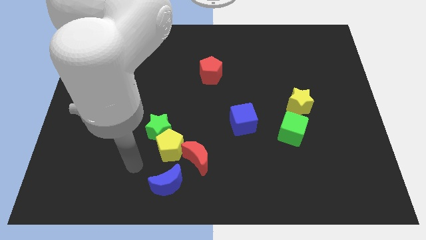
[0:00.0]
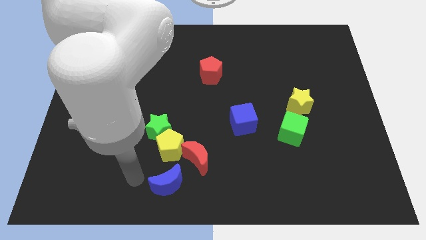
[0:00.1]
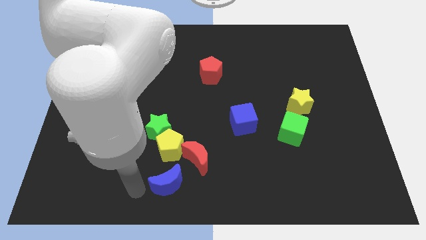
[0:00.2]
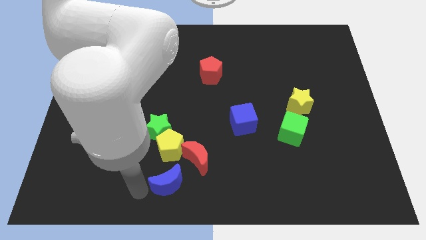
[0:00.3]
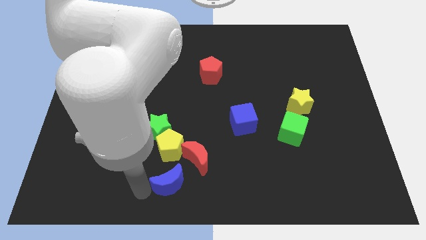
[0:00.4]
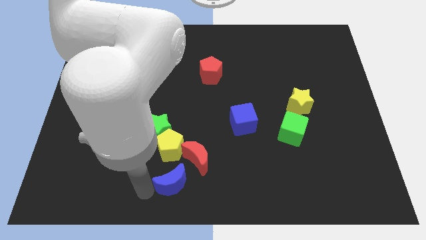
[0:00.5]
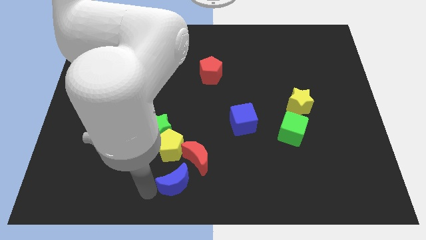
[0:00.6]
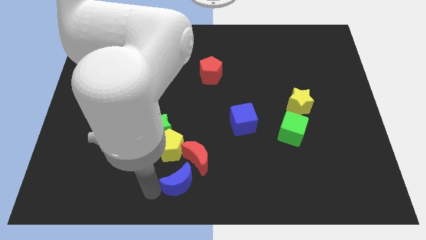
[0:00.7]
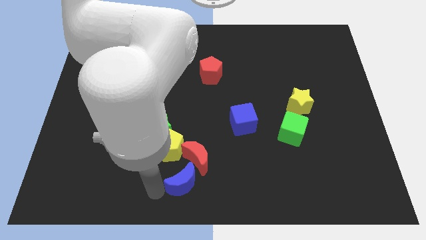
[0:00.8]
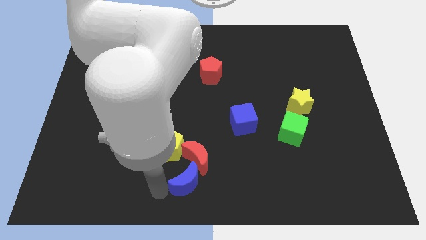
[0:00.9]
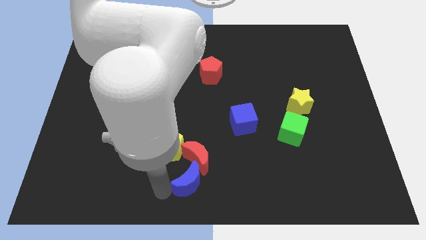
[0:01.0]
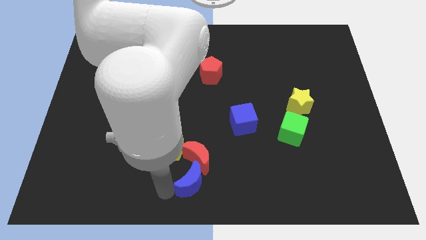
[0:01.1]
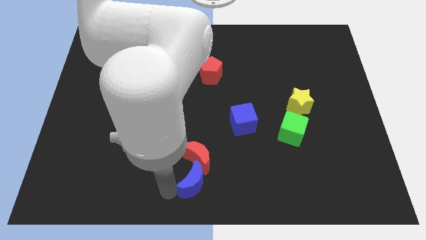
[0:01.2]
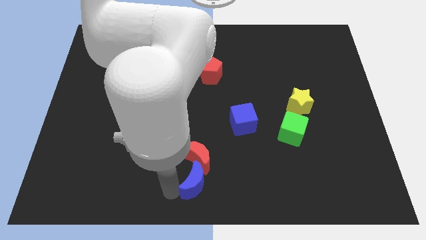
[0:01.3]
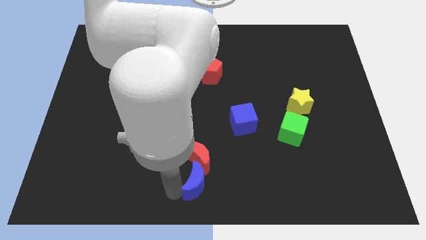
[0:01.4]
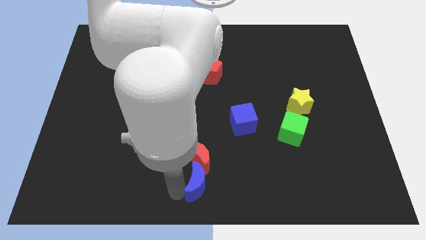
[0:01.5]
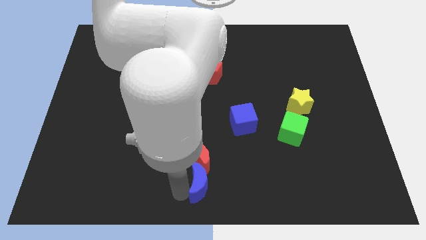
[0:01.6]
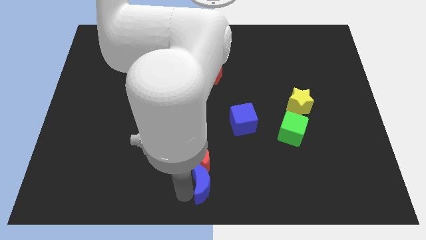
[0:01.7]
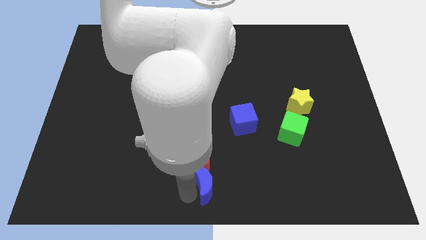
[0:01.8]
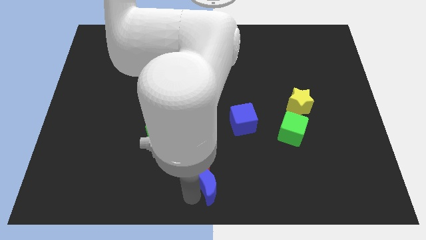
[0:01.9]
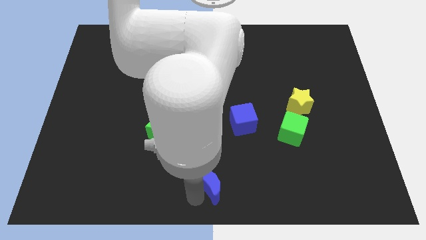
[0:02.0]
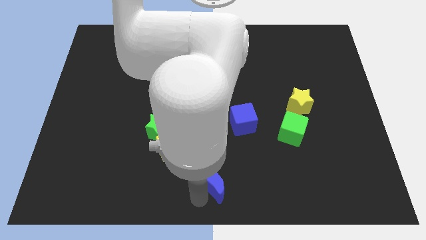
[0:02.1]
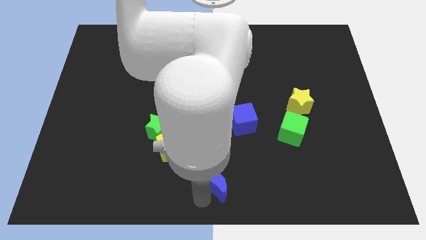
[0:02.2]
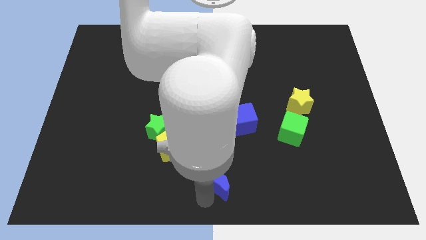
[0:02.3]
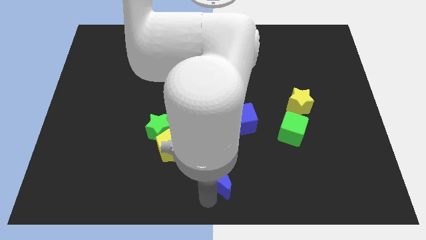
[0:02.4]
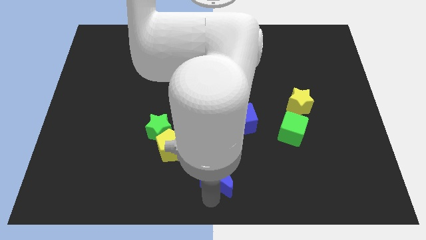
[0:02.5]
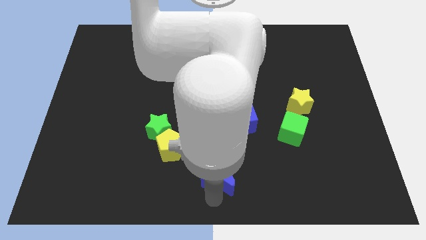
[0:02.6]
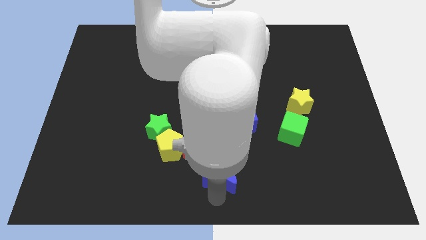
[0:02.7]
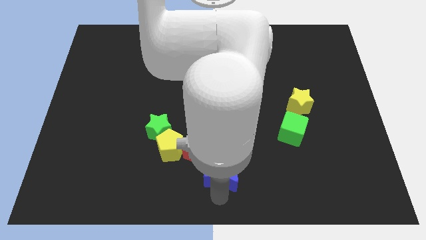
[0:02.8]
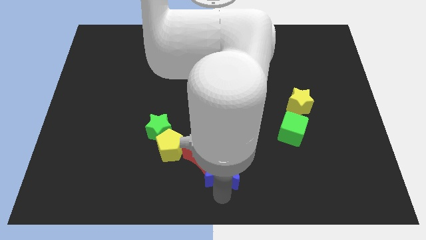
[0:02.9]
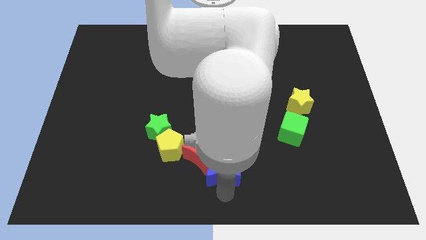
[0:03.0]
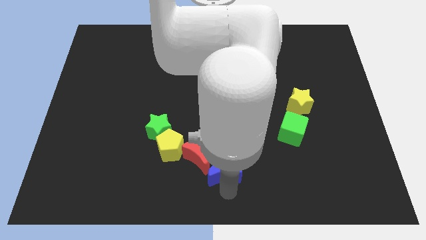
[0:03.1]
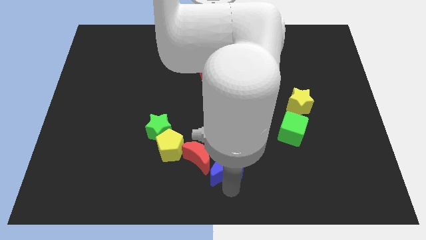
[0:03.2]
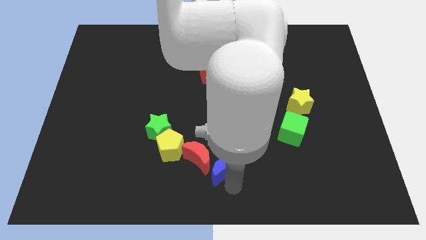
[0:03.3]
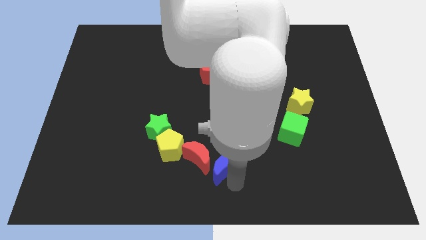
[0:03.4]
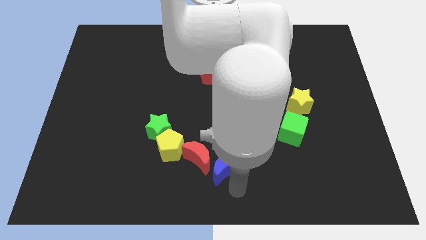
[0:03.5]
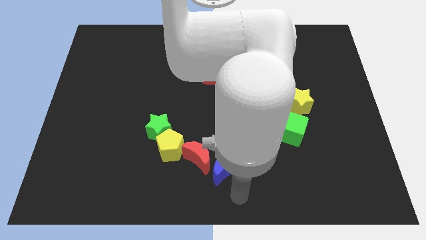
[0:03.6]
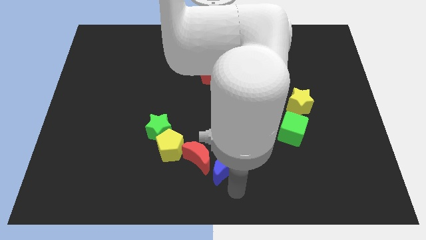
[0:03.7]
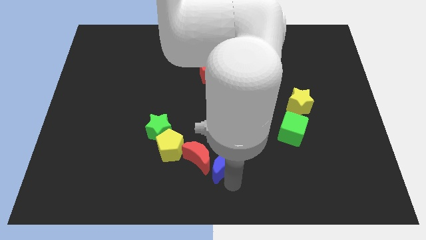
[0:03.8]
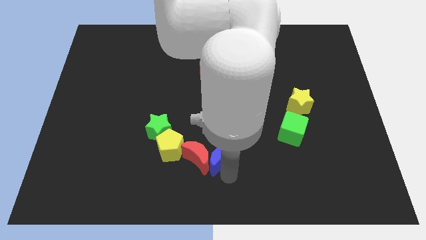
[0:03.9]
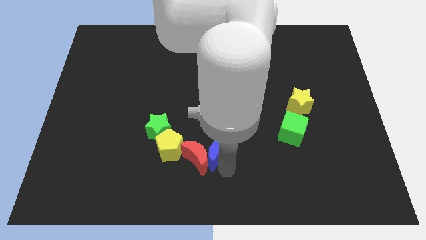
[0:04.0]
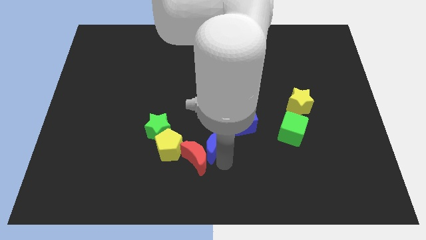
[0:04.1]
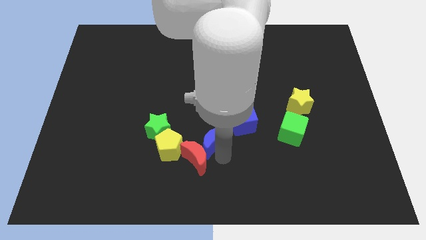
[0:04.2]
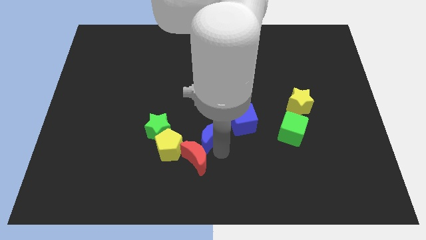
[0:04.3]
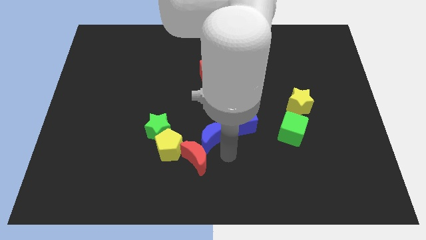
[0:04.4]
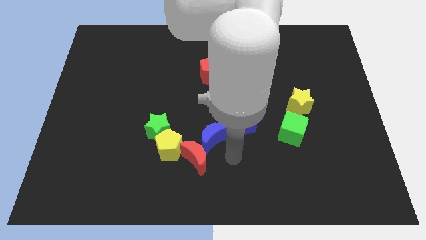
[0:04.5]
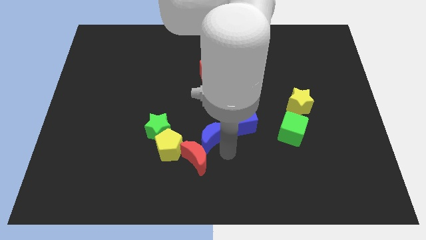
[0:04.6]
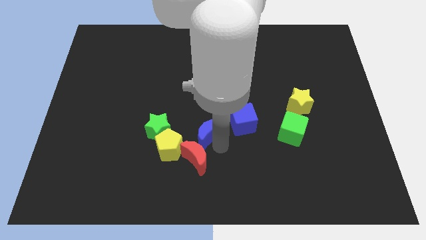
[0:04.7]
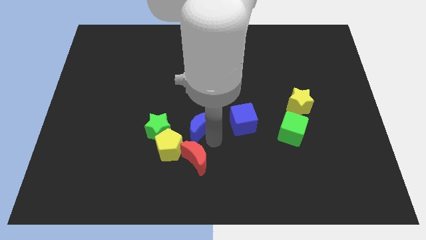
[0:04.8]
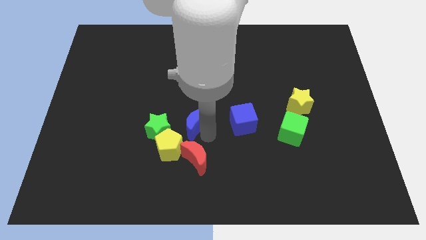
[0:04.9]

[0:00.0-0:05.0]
push the blue moon diagonally up and to the right of the green star

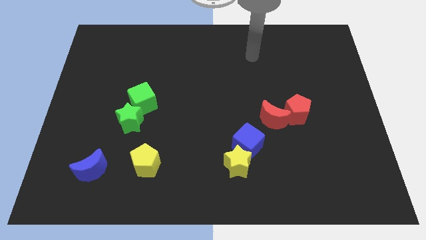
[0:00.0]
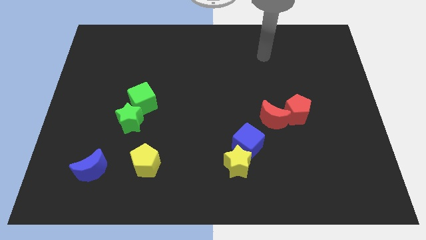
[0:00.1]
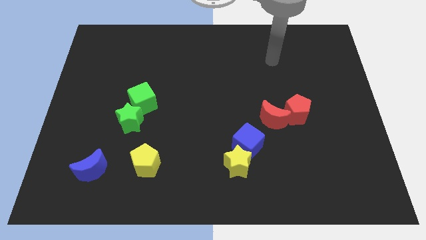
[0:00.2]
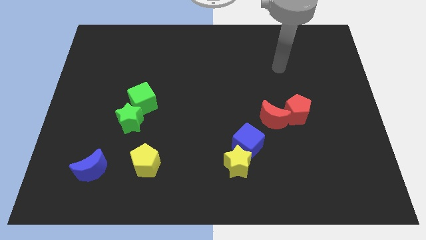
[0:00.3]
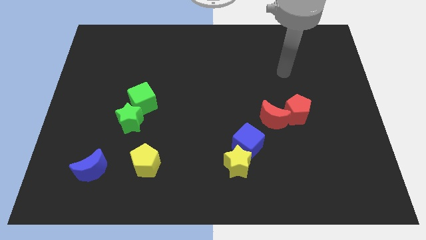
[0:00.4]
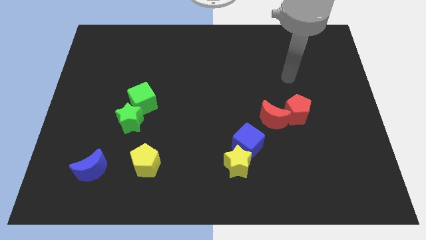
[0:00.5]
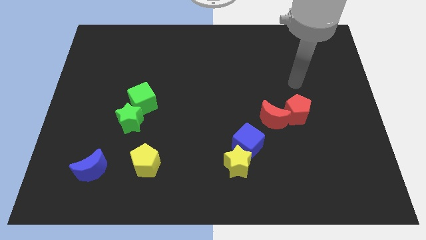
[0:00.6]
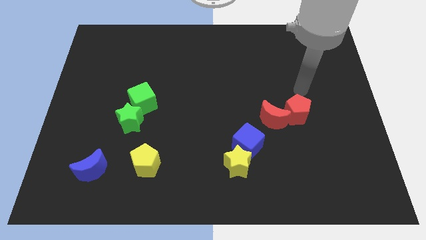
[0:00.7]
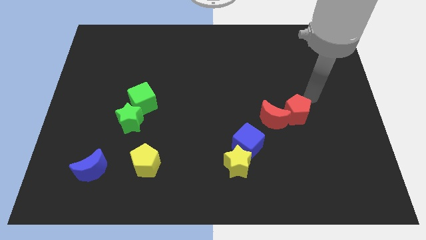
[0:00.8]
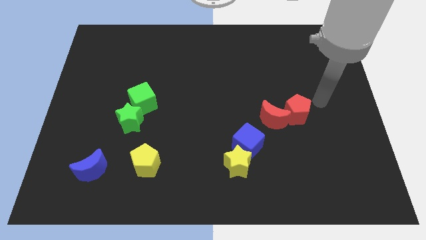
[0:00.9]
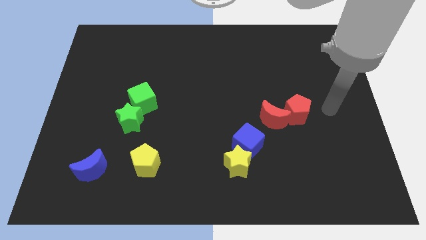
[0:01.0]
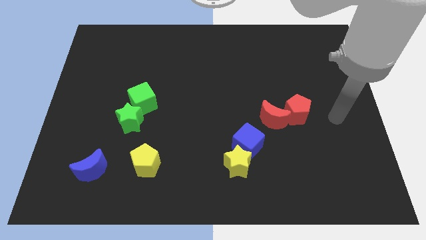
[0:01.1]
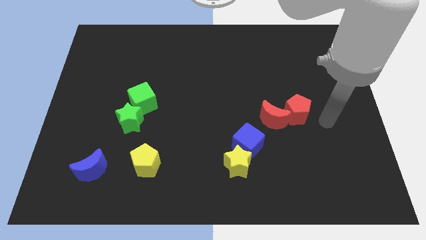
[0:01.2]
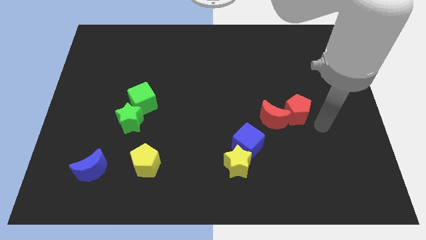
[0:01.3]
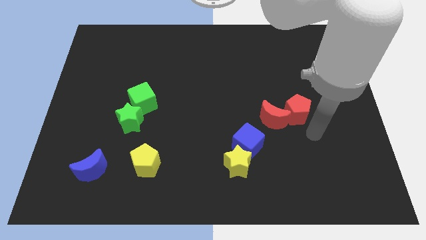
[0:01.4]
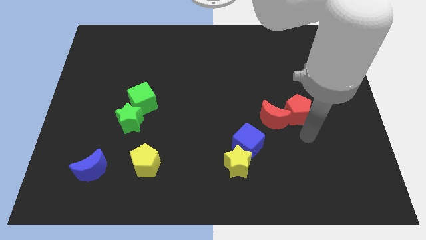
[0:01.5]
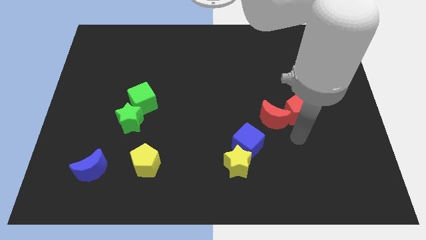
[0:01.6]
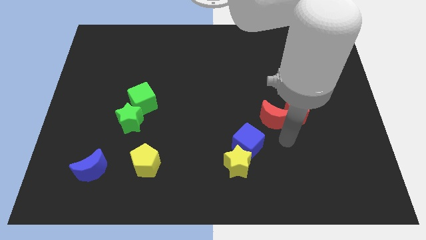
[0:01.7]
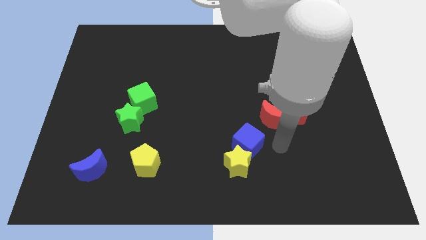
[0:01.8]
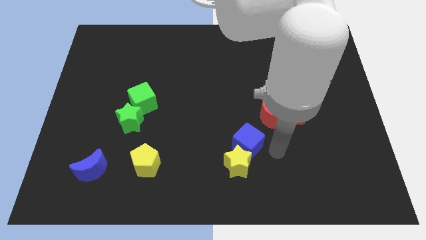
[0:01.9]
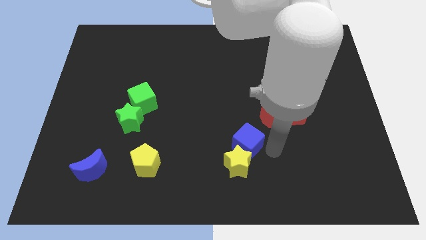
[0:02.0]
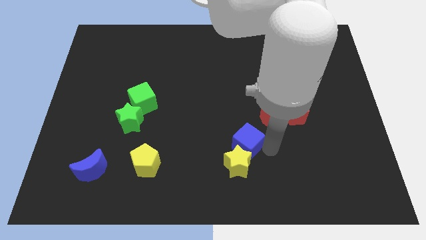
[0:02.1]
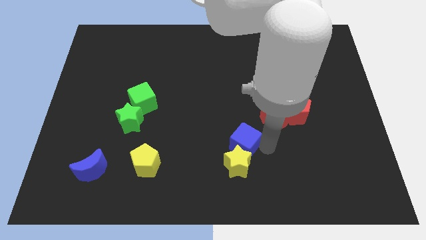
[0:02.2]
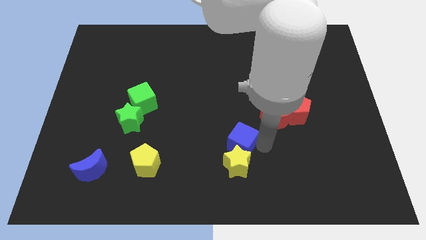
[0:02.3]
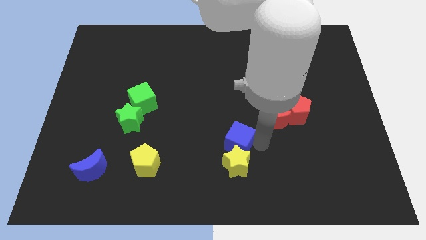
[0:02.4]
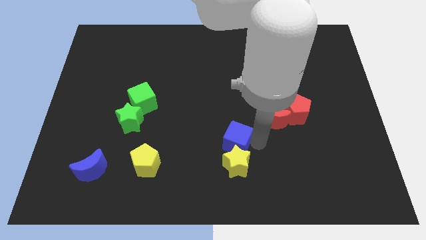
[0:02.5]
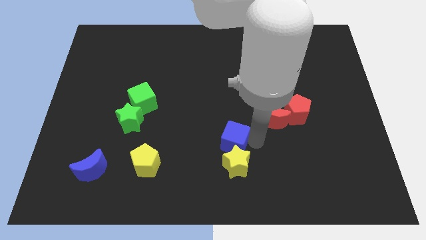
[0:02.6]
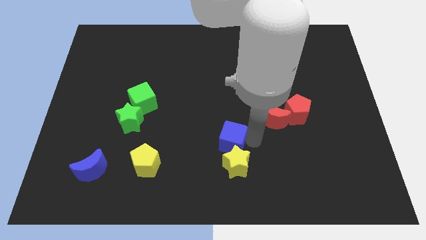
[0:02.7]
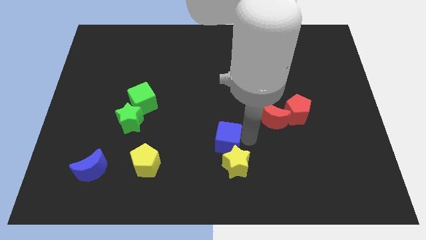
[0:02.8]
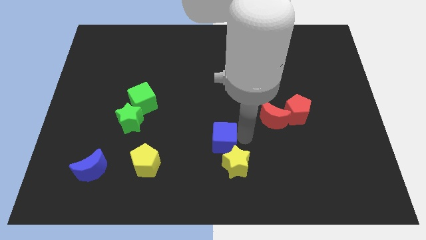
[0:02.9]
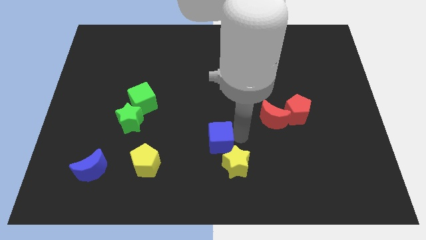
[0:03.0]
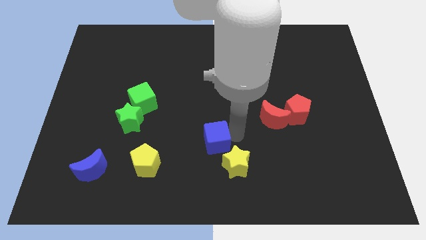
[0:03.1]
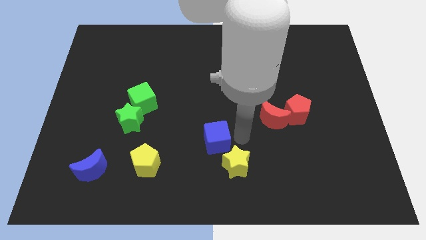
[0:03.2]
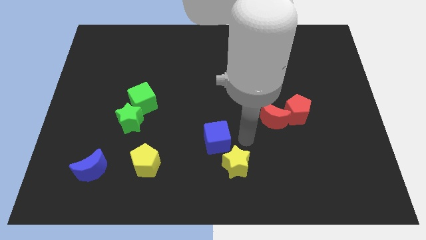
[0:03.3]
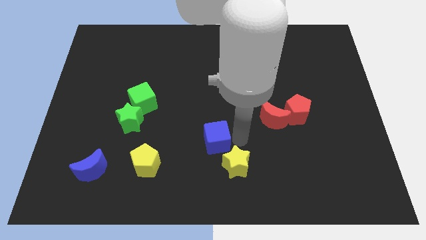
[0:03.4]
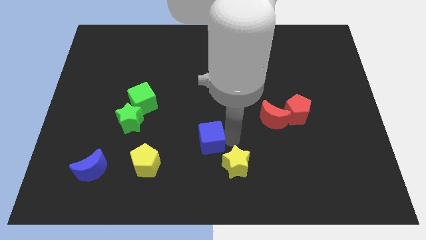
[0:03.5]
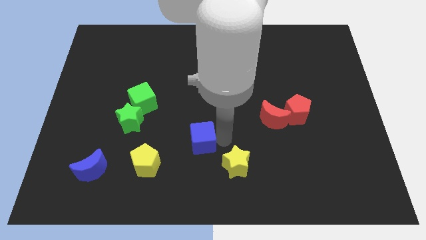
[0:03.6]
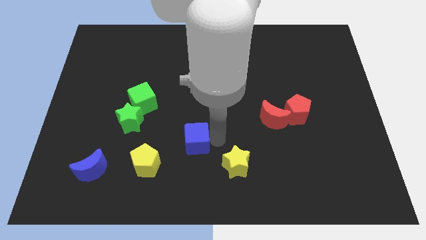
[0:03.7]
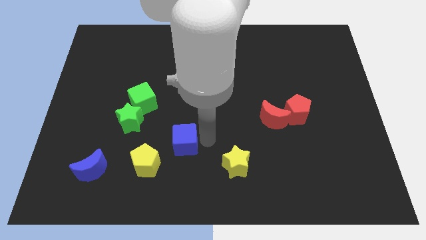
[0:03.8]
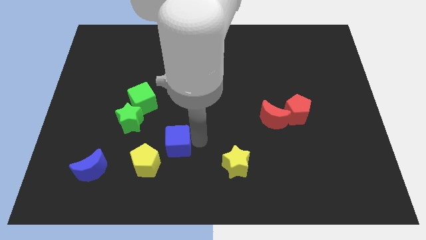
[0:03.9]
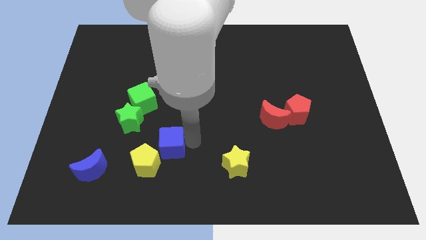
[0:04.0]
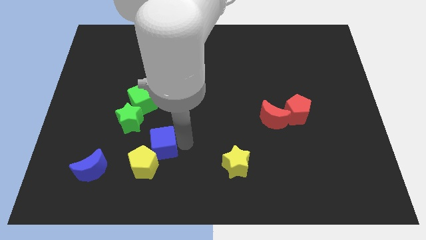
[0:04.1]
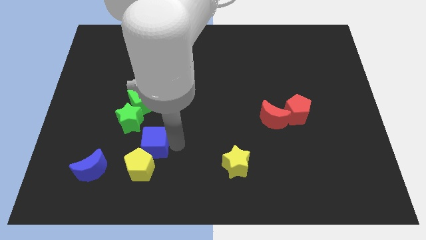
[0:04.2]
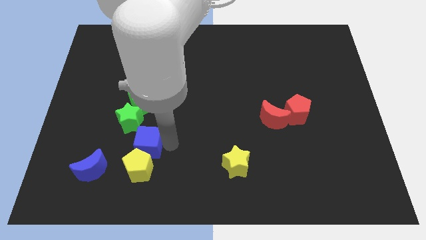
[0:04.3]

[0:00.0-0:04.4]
move the blue cube below the green star
